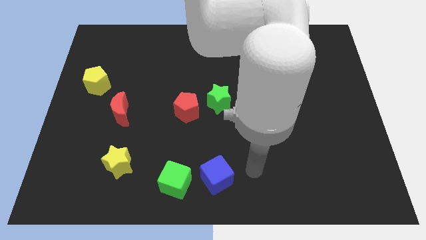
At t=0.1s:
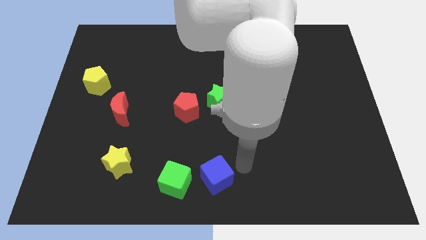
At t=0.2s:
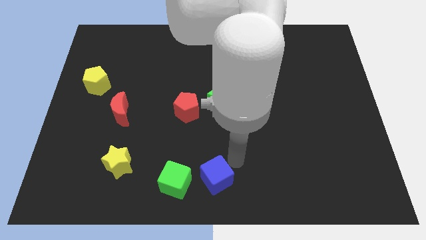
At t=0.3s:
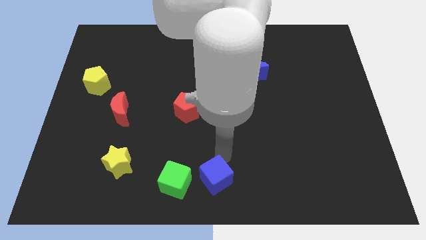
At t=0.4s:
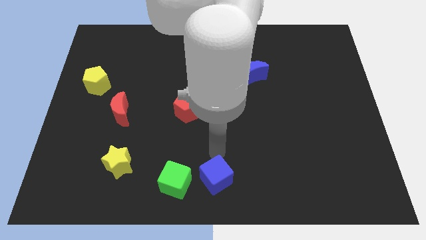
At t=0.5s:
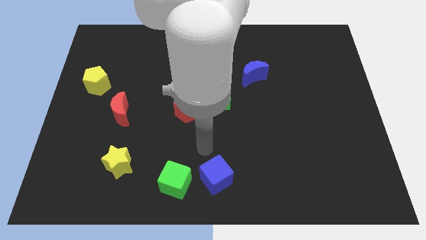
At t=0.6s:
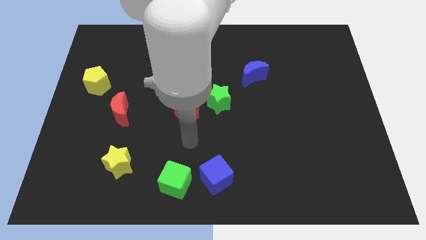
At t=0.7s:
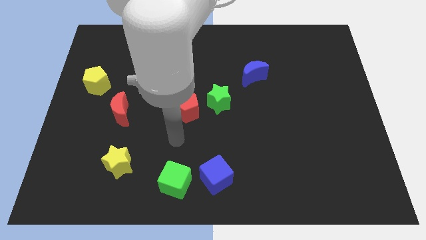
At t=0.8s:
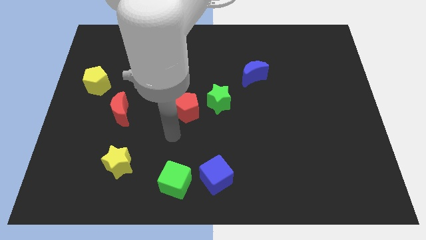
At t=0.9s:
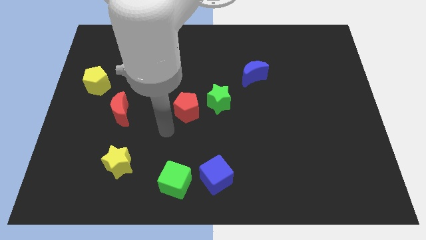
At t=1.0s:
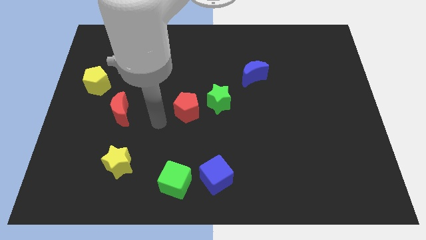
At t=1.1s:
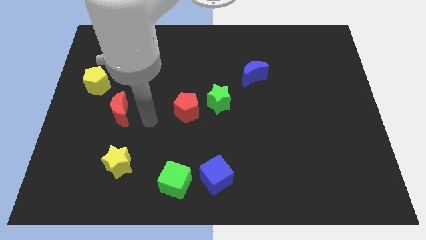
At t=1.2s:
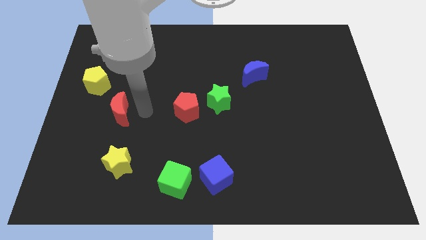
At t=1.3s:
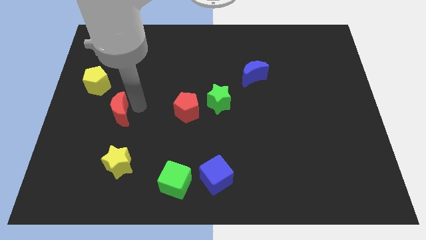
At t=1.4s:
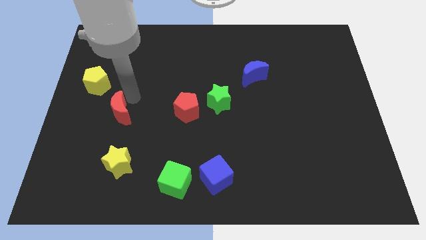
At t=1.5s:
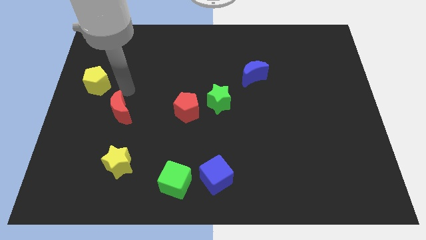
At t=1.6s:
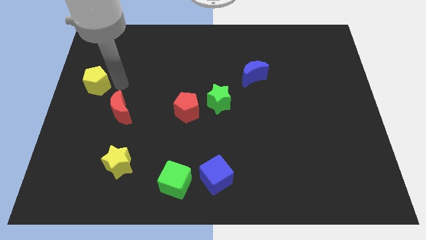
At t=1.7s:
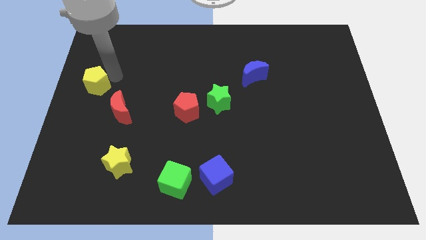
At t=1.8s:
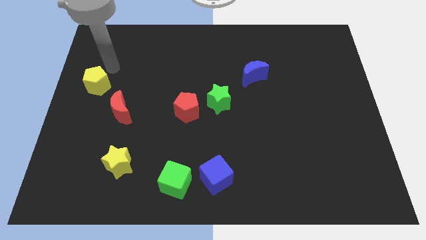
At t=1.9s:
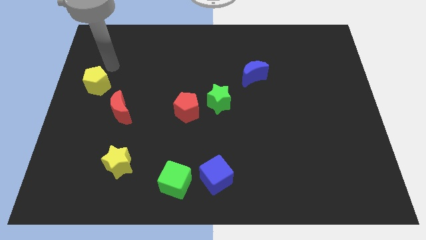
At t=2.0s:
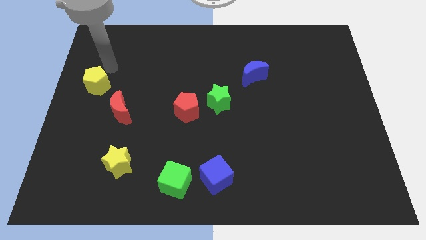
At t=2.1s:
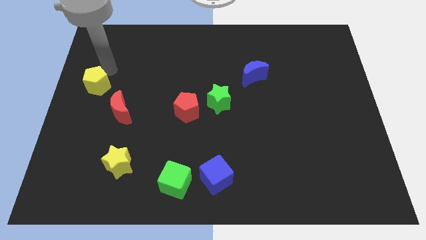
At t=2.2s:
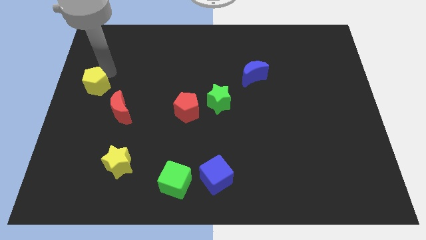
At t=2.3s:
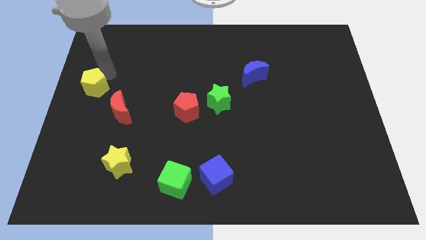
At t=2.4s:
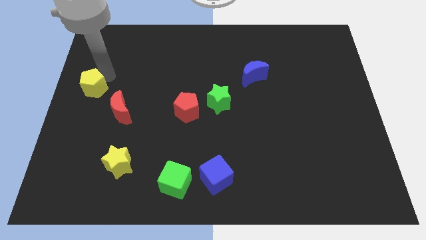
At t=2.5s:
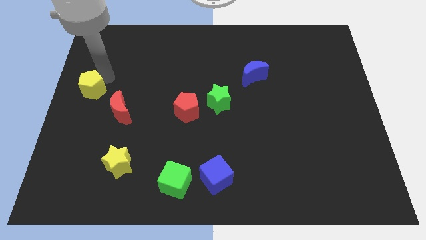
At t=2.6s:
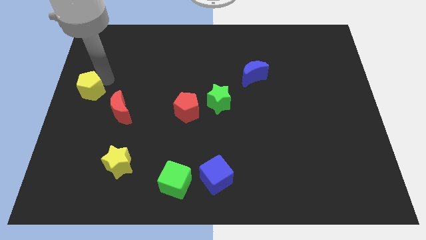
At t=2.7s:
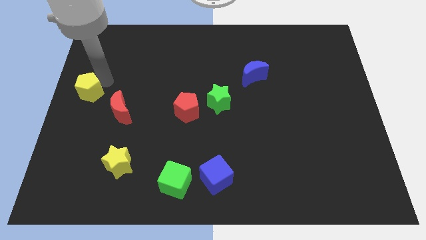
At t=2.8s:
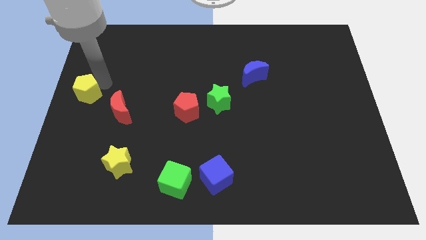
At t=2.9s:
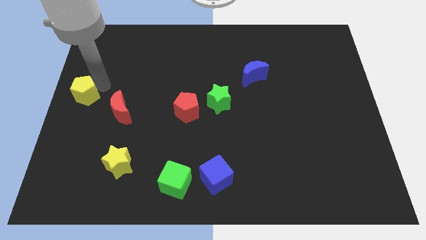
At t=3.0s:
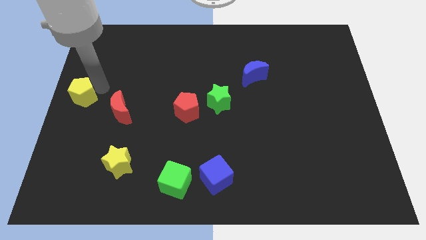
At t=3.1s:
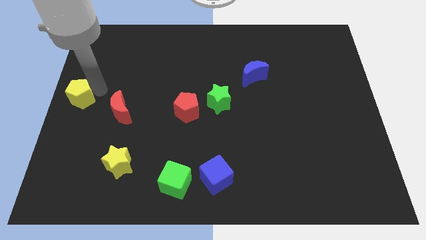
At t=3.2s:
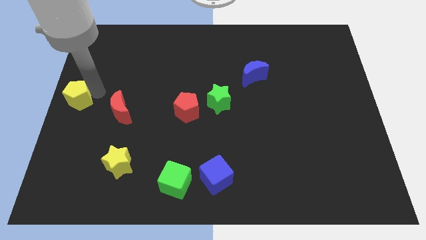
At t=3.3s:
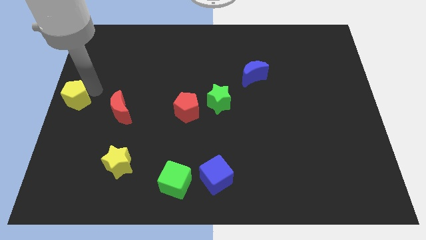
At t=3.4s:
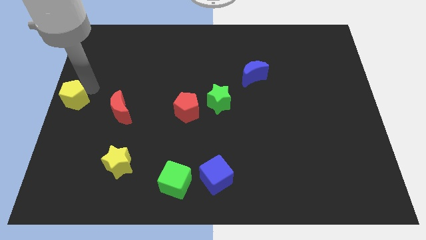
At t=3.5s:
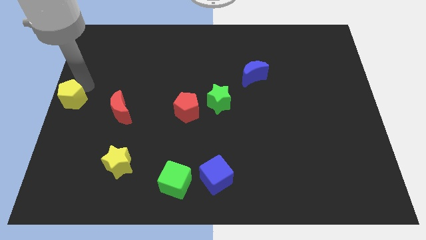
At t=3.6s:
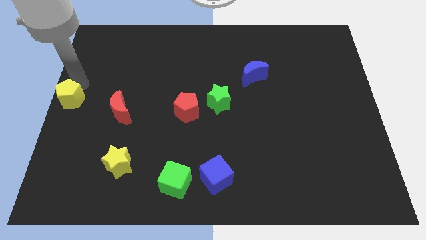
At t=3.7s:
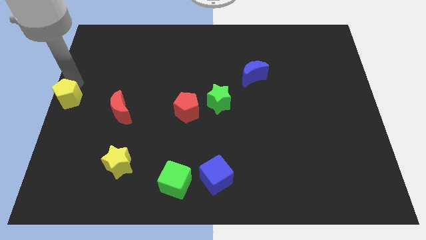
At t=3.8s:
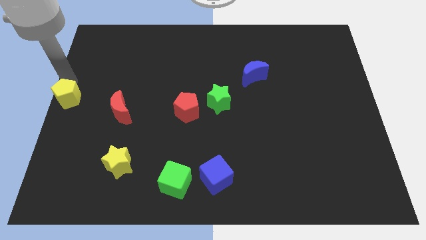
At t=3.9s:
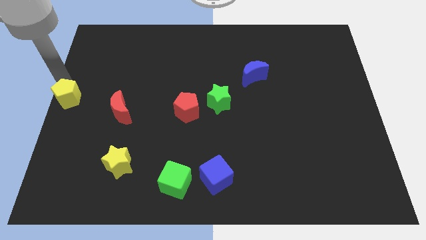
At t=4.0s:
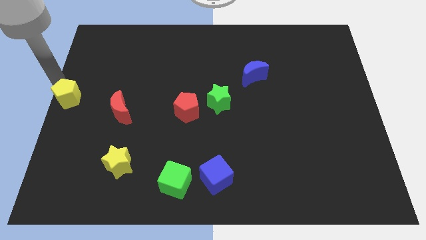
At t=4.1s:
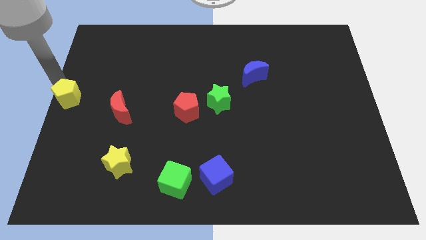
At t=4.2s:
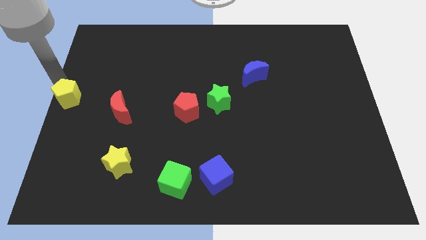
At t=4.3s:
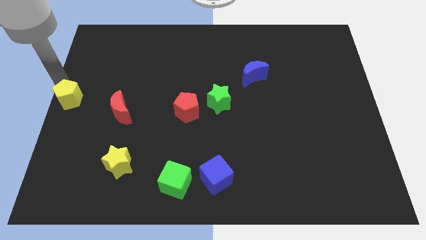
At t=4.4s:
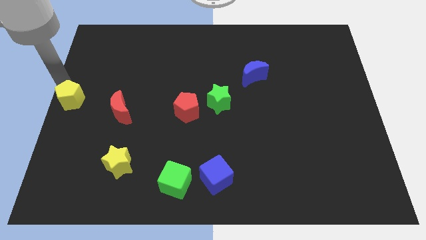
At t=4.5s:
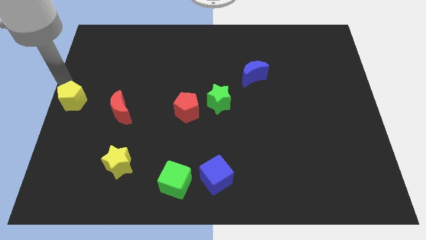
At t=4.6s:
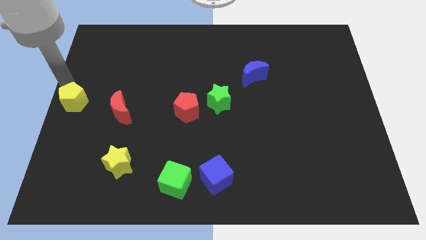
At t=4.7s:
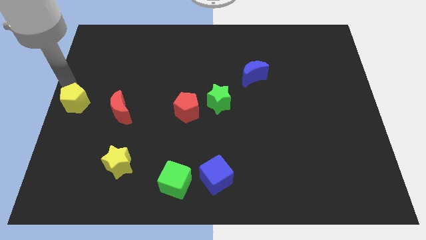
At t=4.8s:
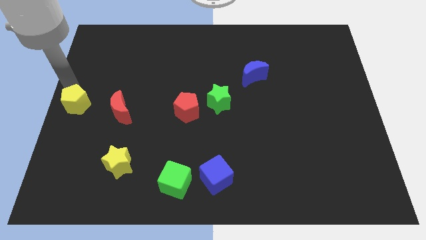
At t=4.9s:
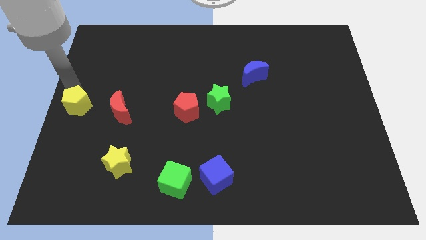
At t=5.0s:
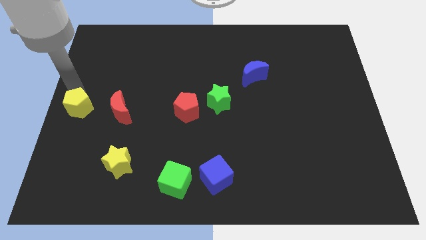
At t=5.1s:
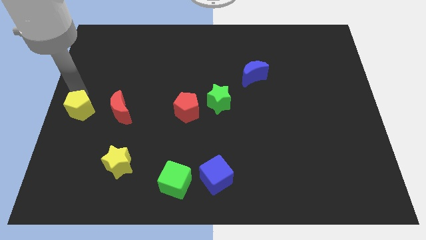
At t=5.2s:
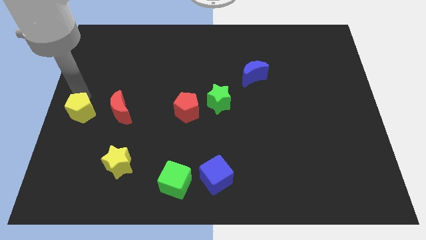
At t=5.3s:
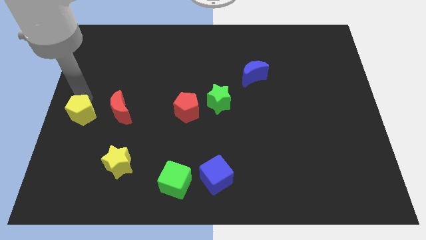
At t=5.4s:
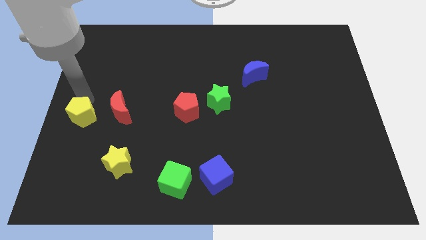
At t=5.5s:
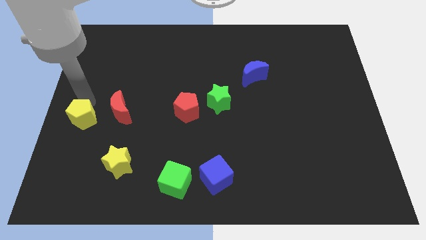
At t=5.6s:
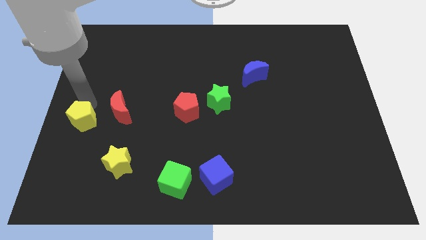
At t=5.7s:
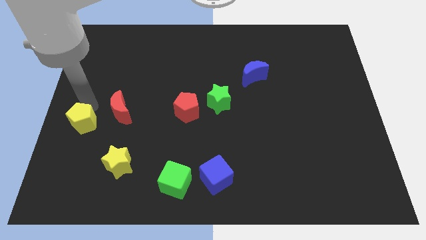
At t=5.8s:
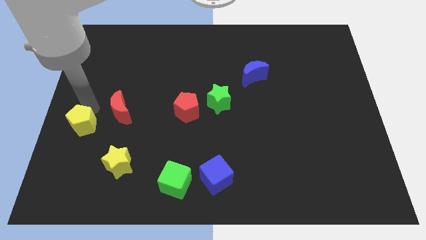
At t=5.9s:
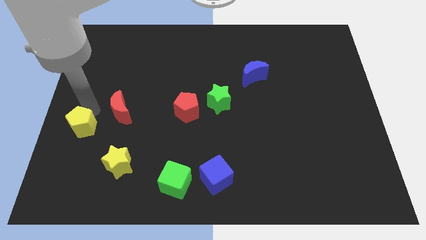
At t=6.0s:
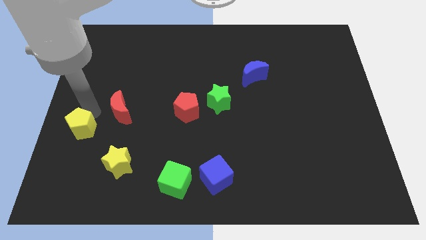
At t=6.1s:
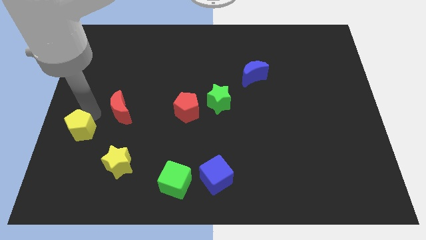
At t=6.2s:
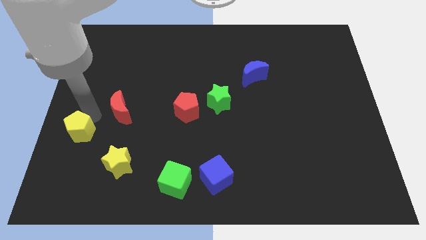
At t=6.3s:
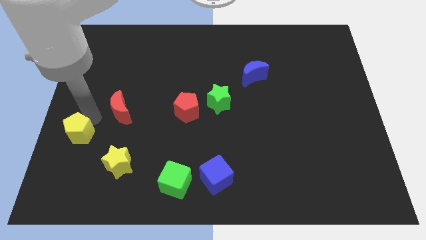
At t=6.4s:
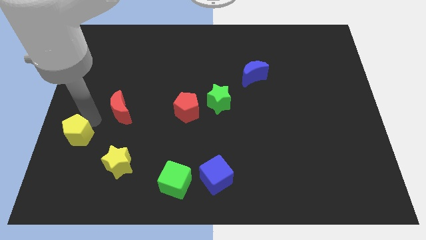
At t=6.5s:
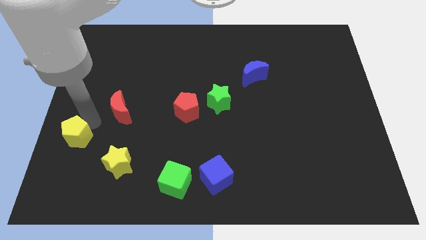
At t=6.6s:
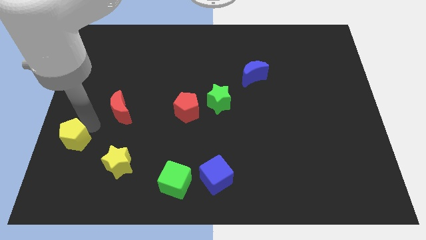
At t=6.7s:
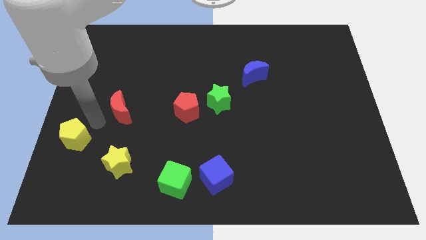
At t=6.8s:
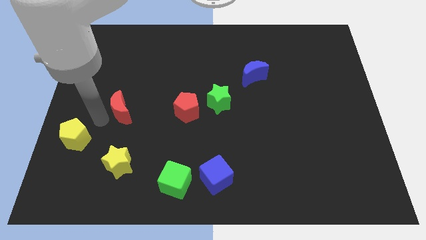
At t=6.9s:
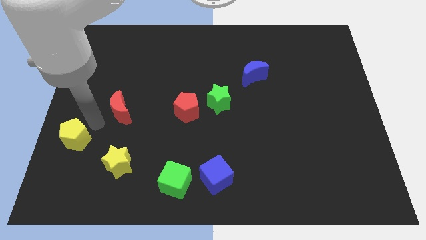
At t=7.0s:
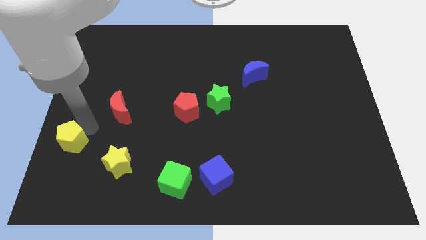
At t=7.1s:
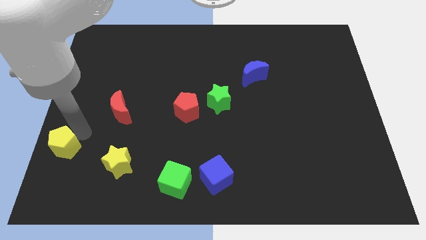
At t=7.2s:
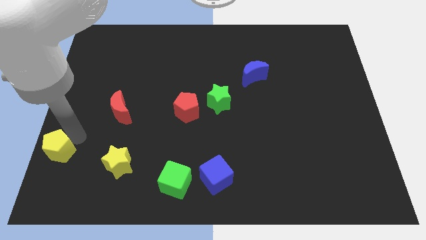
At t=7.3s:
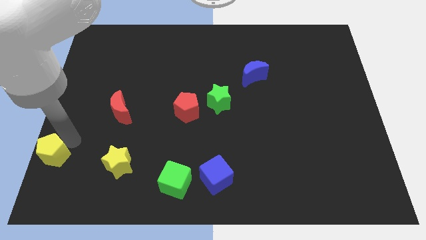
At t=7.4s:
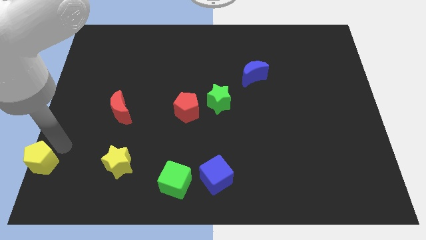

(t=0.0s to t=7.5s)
move the yellow pentagon to the lower left corner

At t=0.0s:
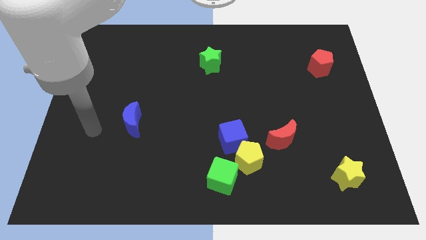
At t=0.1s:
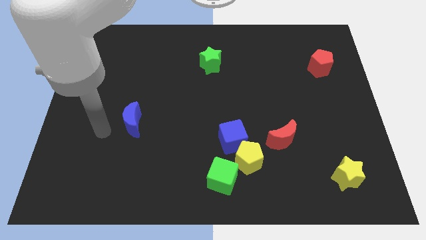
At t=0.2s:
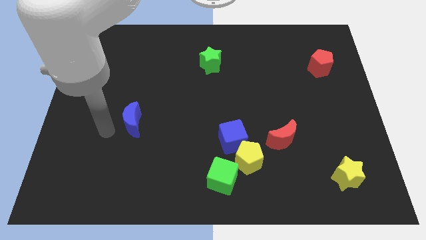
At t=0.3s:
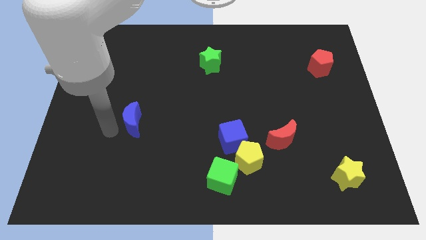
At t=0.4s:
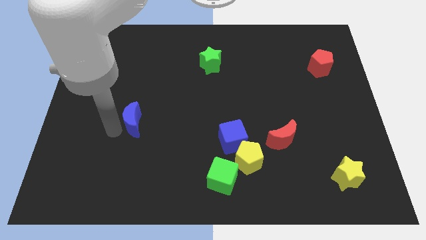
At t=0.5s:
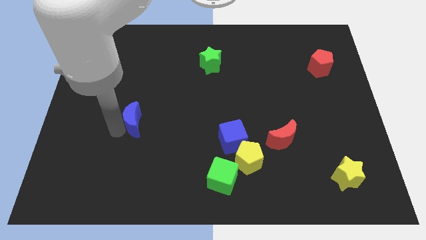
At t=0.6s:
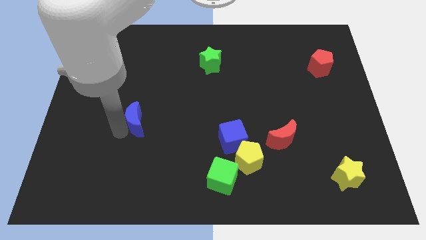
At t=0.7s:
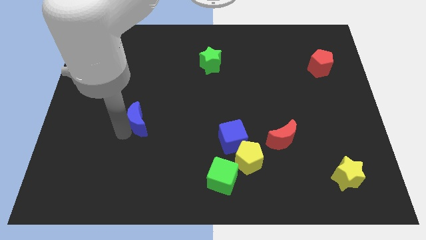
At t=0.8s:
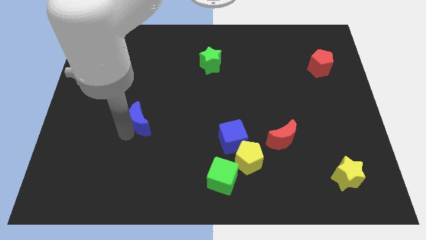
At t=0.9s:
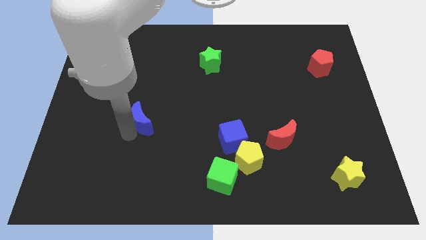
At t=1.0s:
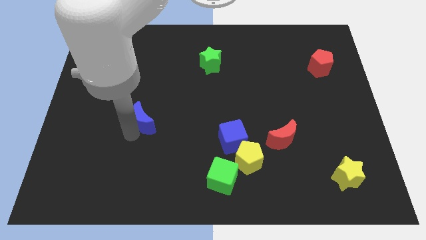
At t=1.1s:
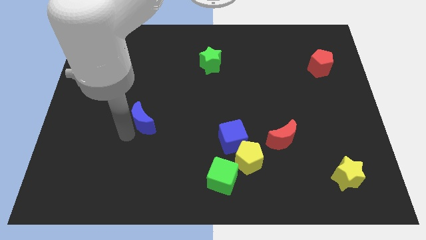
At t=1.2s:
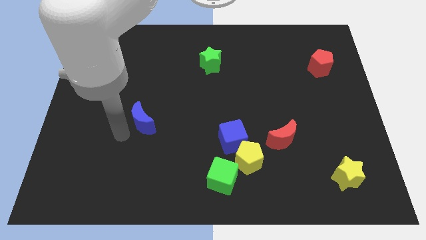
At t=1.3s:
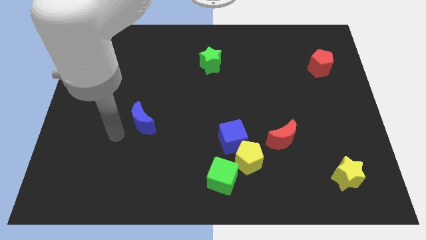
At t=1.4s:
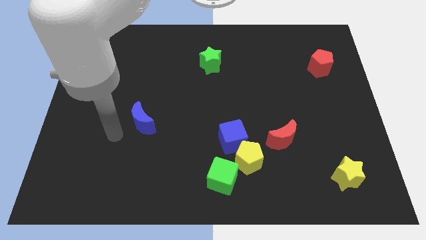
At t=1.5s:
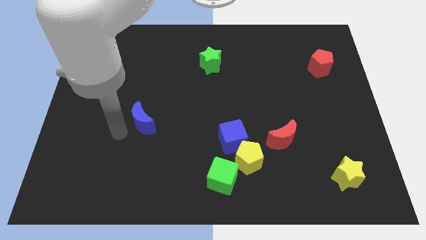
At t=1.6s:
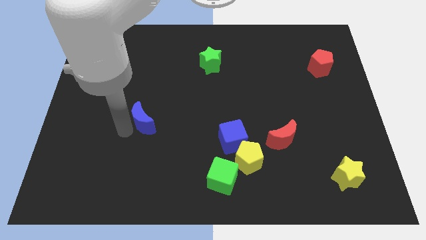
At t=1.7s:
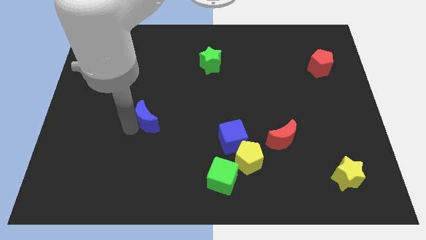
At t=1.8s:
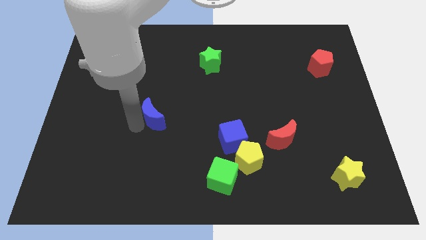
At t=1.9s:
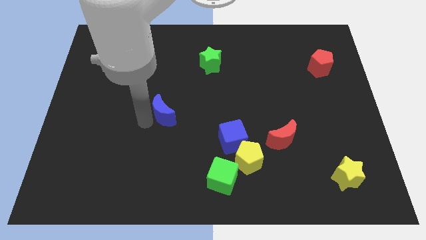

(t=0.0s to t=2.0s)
push the blue moon to the center of the board
